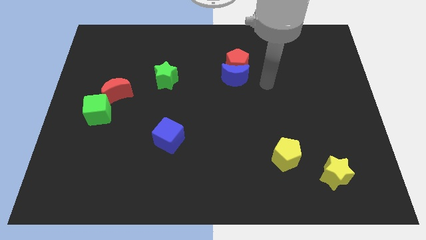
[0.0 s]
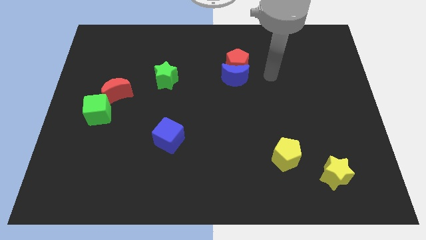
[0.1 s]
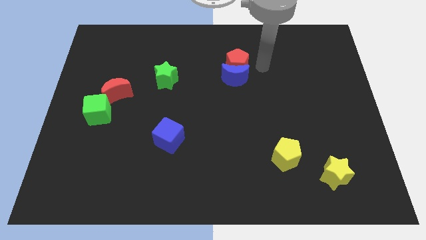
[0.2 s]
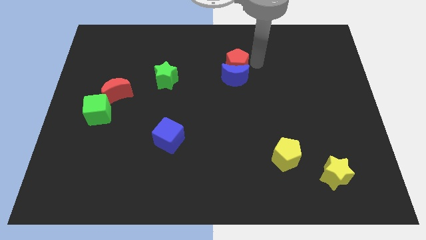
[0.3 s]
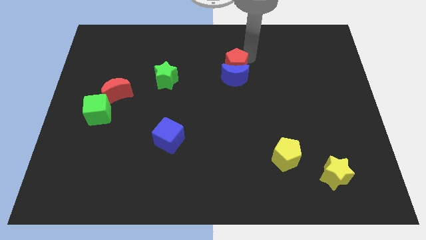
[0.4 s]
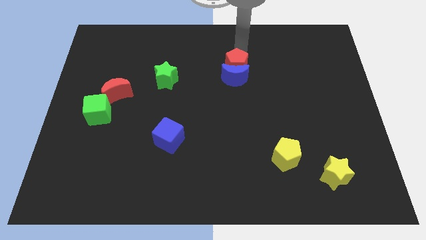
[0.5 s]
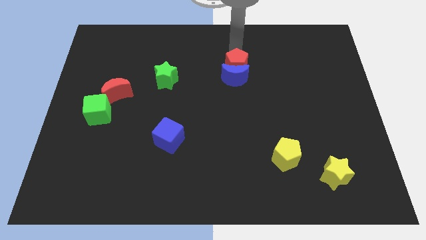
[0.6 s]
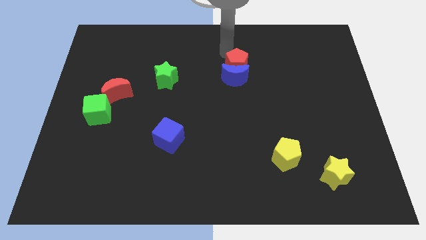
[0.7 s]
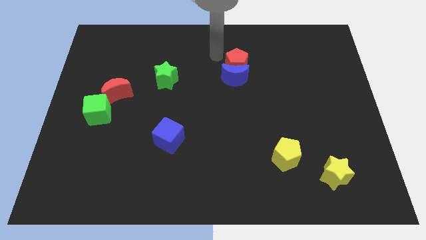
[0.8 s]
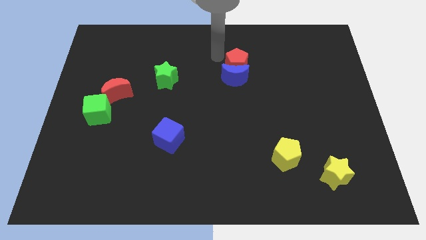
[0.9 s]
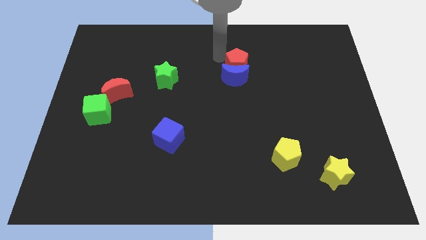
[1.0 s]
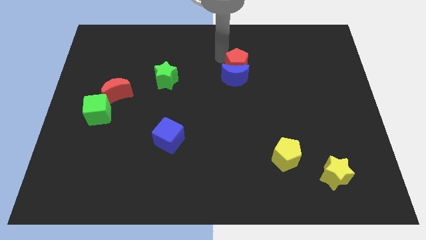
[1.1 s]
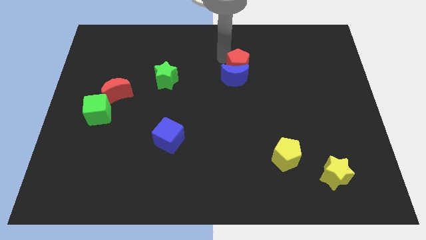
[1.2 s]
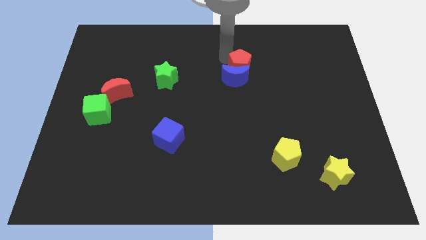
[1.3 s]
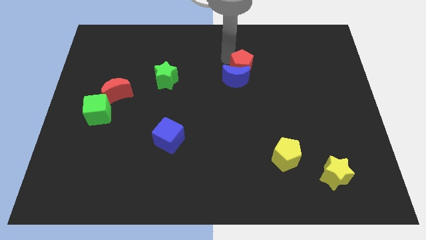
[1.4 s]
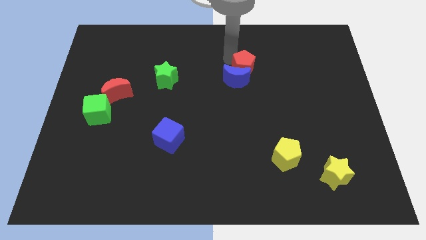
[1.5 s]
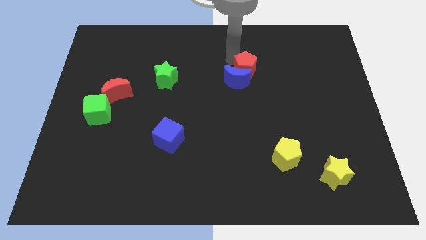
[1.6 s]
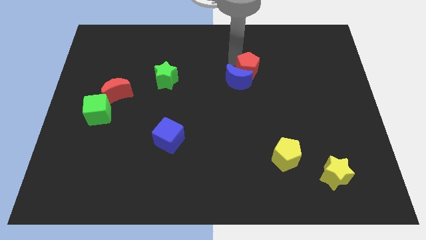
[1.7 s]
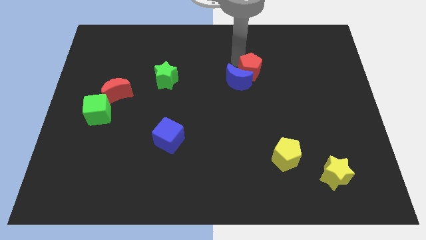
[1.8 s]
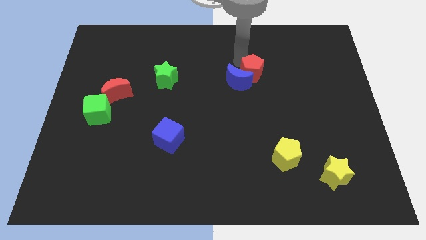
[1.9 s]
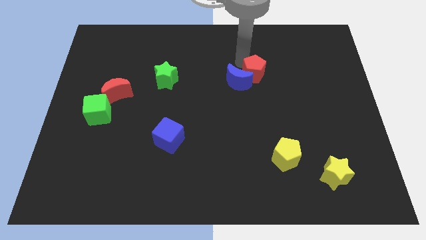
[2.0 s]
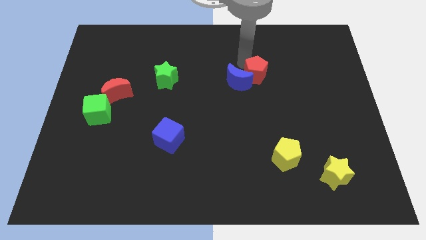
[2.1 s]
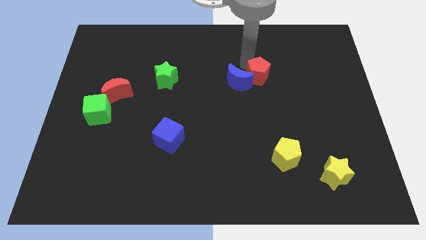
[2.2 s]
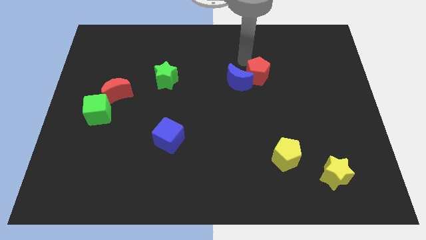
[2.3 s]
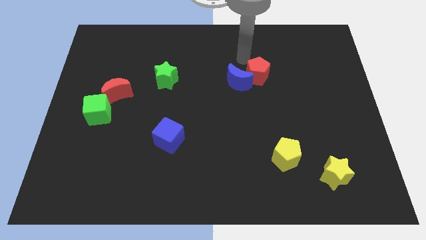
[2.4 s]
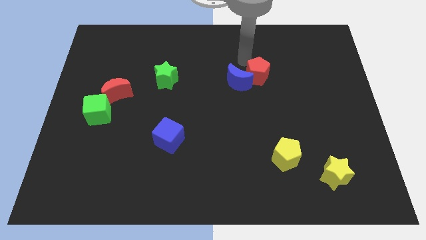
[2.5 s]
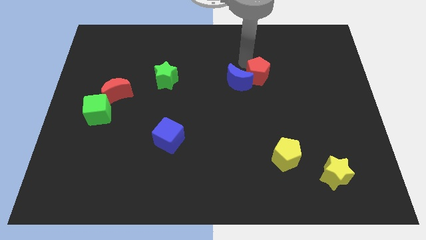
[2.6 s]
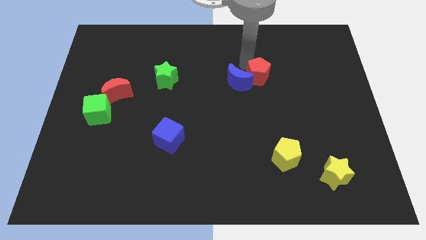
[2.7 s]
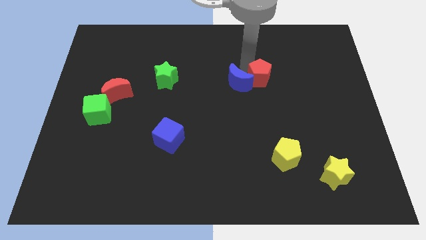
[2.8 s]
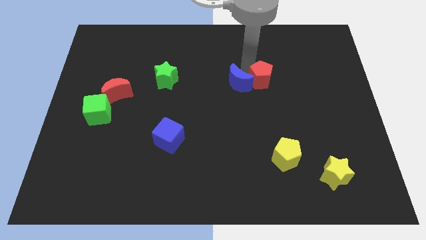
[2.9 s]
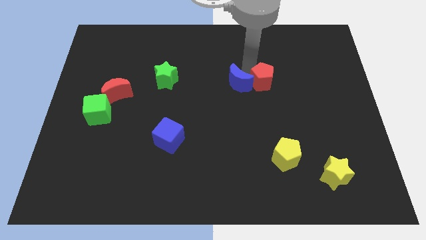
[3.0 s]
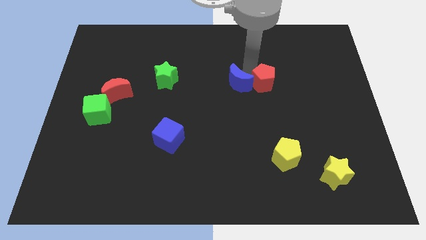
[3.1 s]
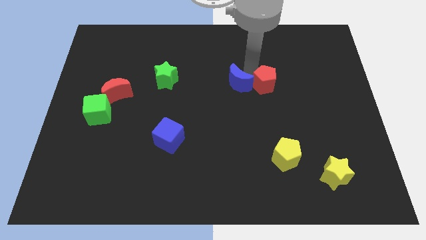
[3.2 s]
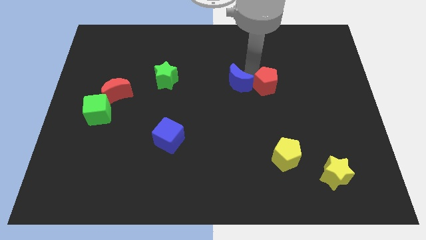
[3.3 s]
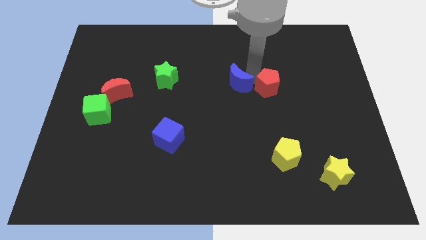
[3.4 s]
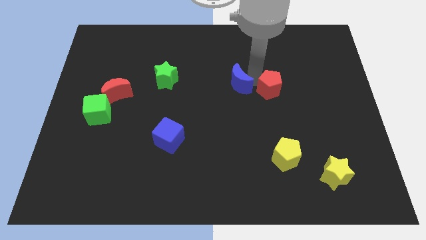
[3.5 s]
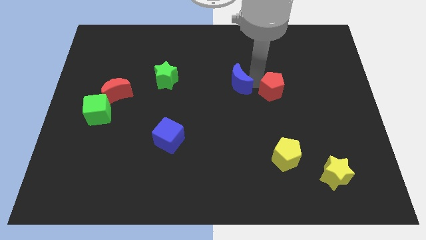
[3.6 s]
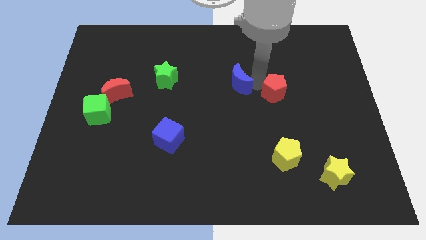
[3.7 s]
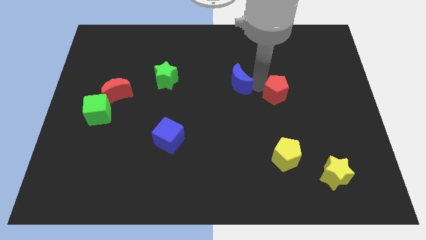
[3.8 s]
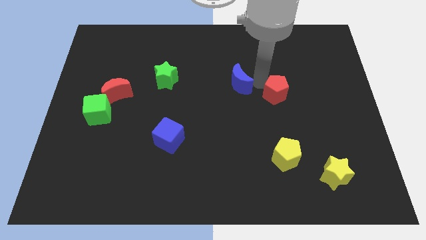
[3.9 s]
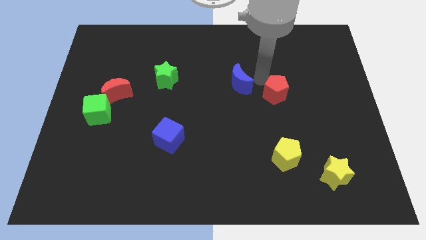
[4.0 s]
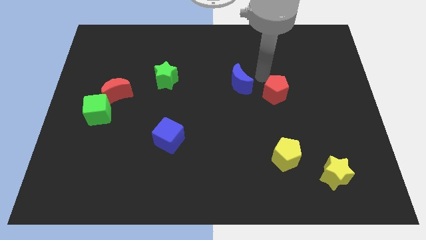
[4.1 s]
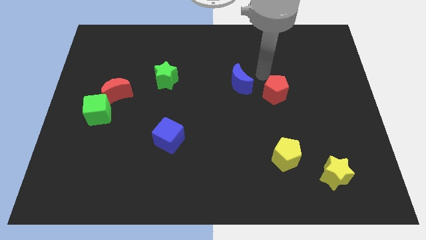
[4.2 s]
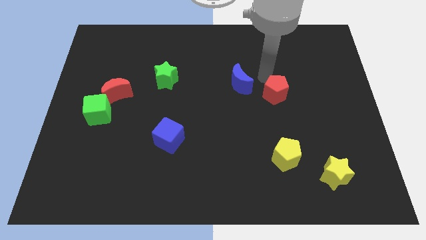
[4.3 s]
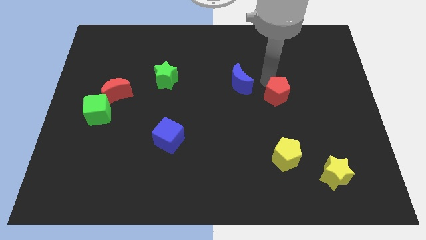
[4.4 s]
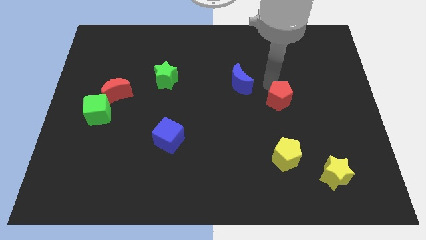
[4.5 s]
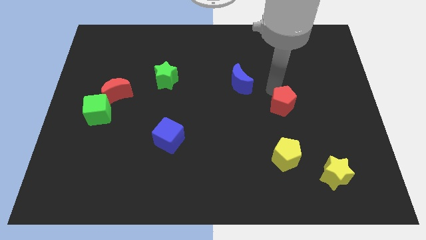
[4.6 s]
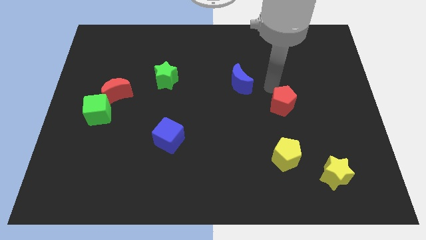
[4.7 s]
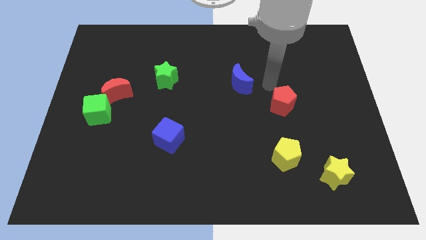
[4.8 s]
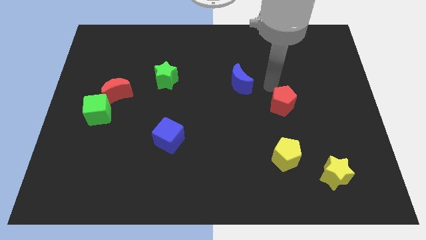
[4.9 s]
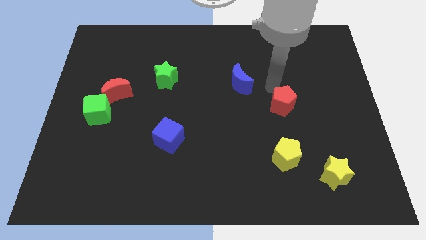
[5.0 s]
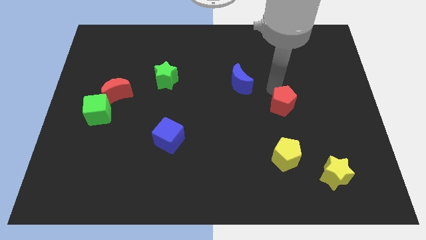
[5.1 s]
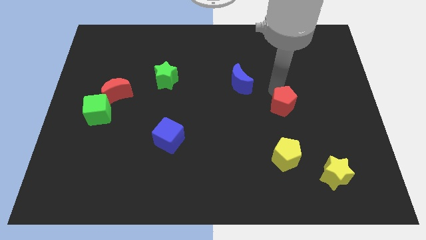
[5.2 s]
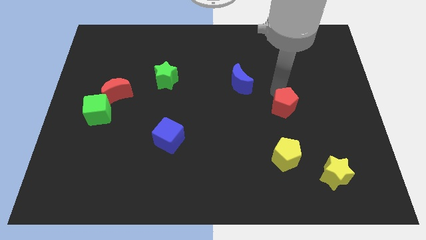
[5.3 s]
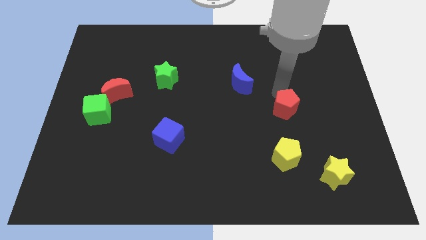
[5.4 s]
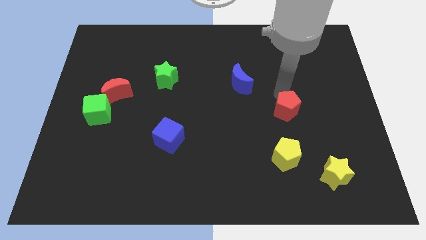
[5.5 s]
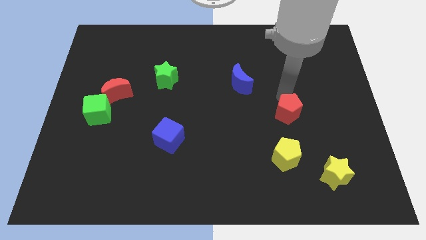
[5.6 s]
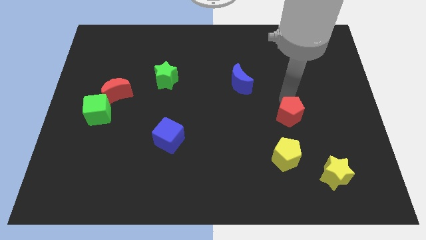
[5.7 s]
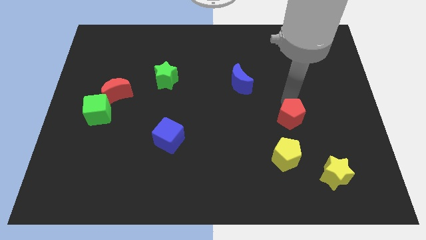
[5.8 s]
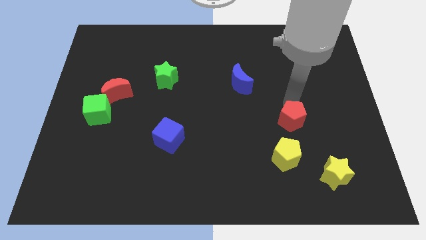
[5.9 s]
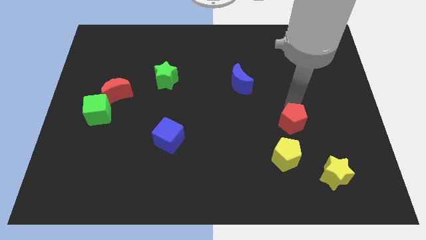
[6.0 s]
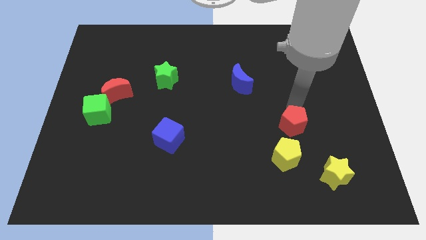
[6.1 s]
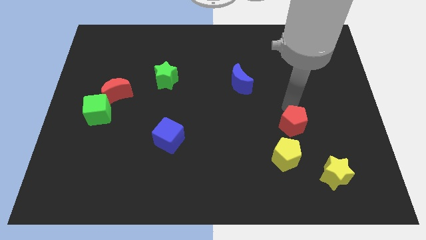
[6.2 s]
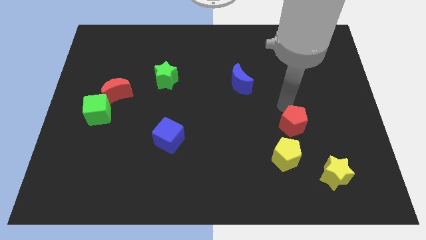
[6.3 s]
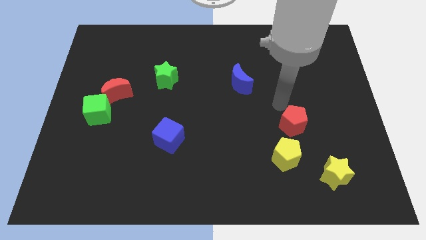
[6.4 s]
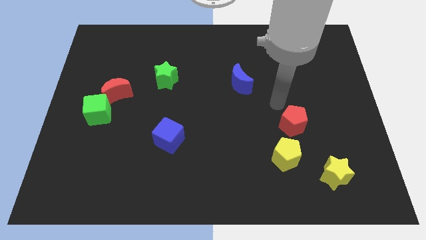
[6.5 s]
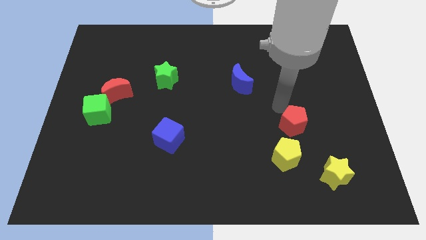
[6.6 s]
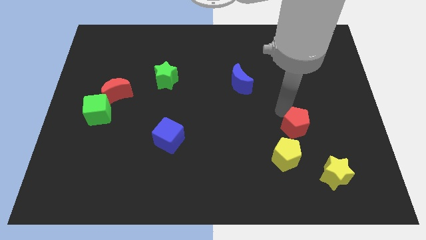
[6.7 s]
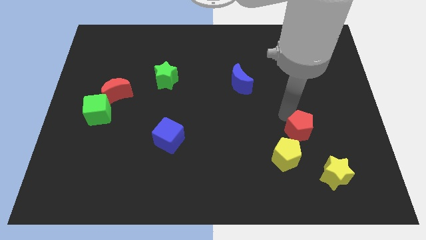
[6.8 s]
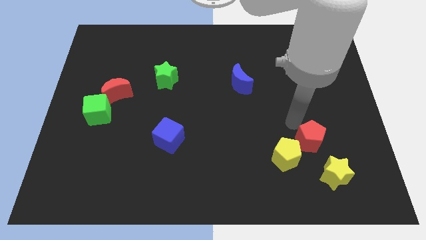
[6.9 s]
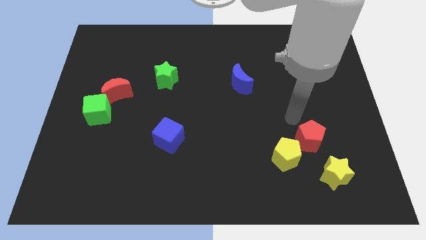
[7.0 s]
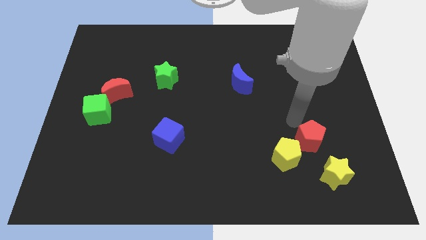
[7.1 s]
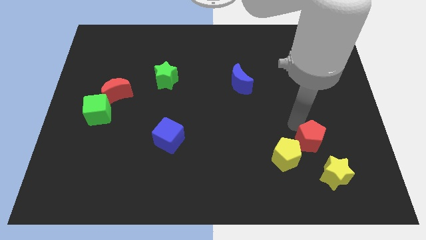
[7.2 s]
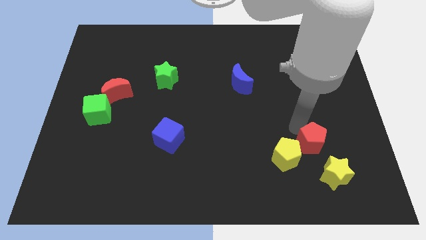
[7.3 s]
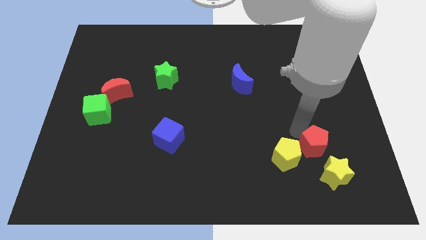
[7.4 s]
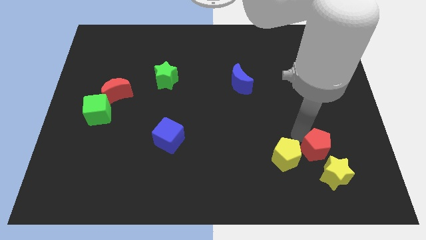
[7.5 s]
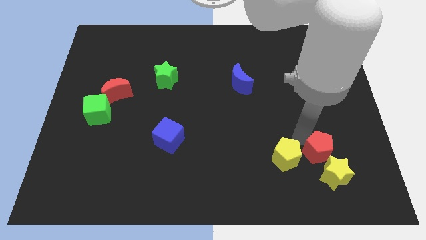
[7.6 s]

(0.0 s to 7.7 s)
move the red pentagon close to the yellow star
